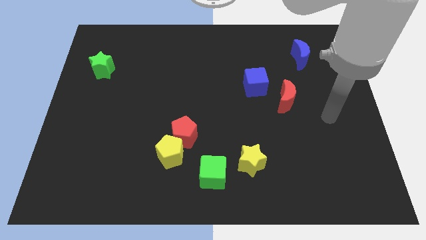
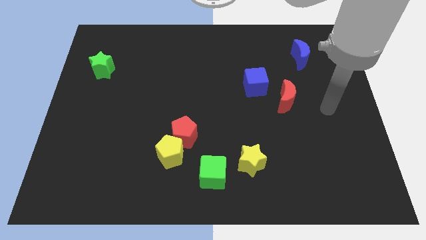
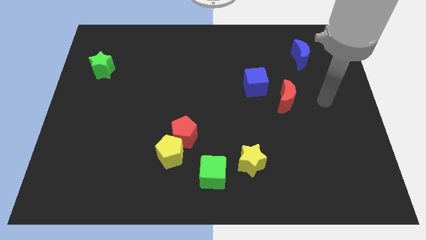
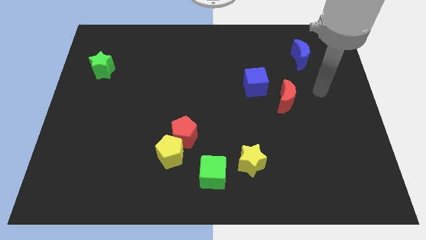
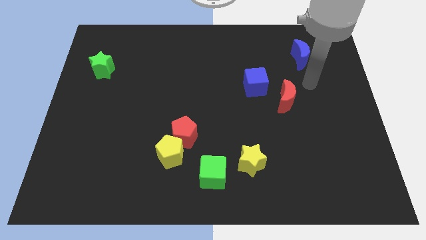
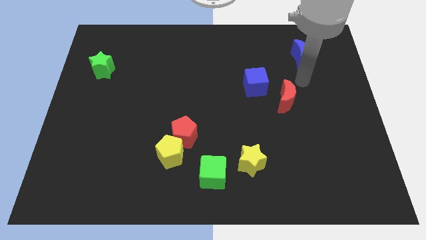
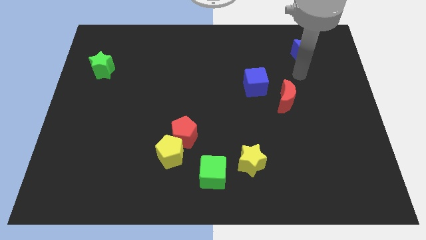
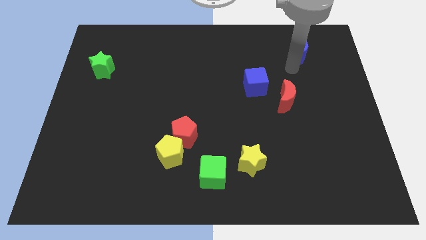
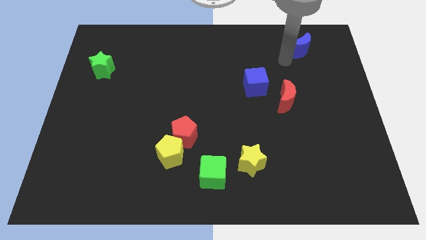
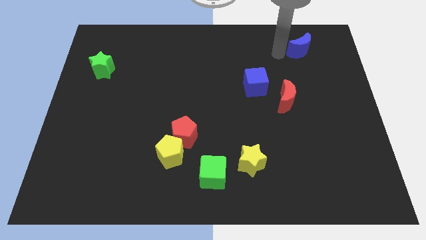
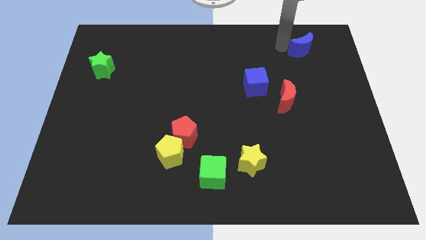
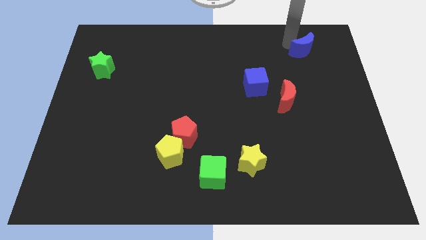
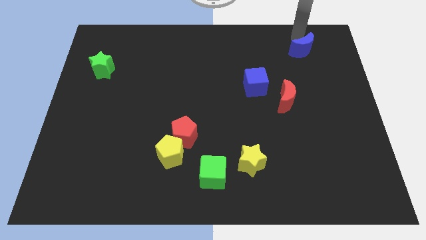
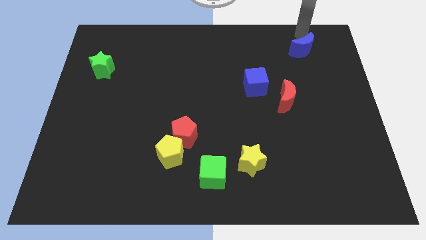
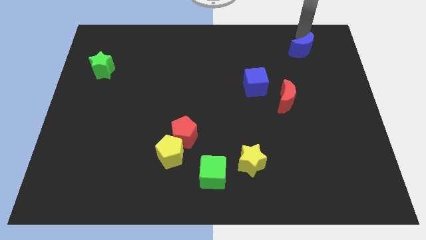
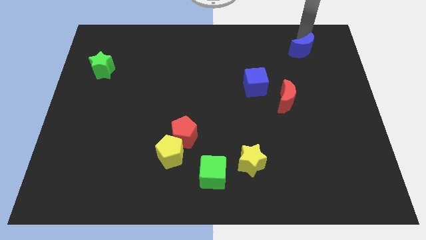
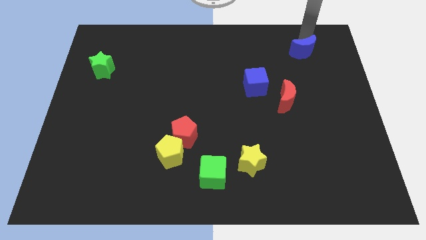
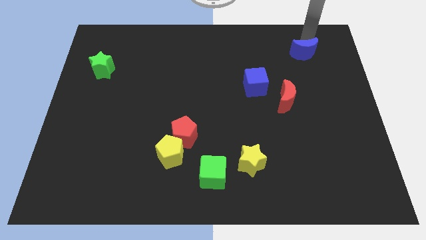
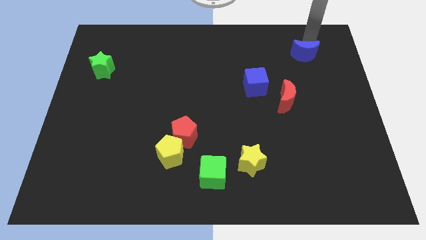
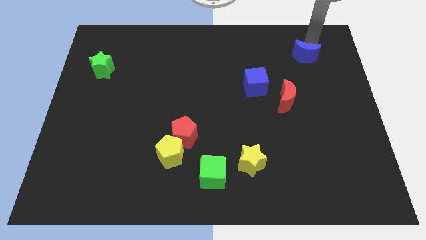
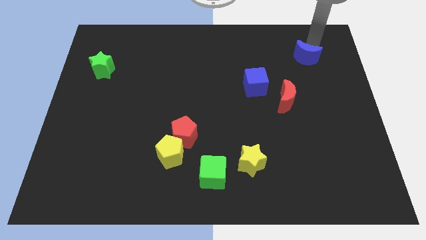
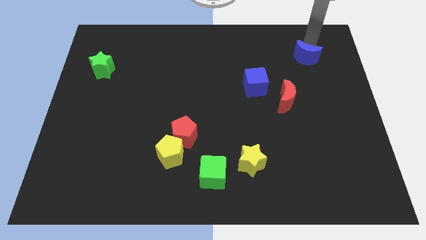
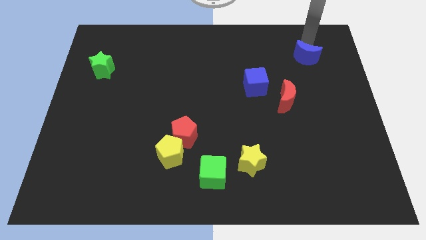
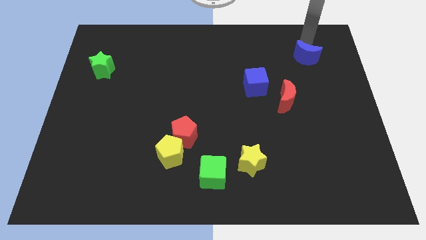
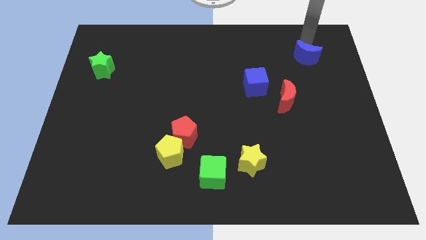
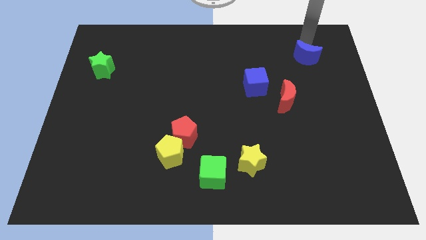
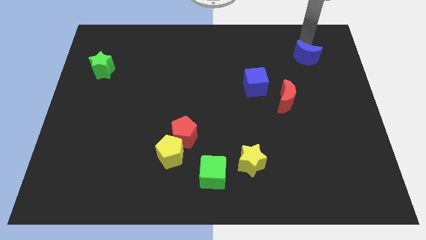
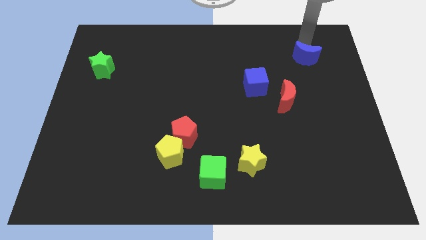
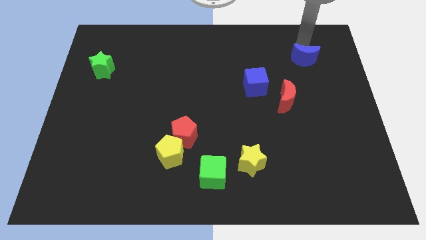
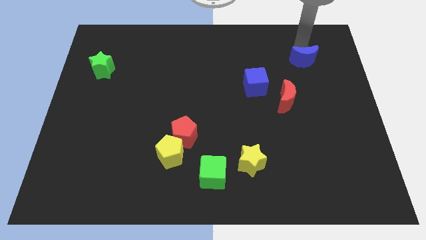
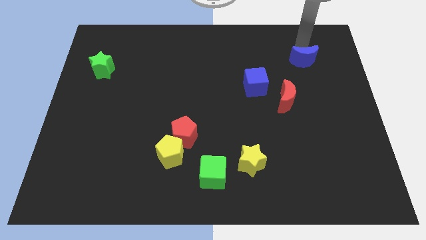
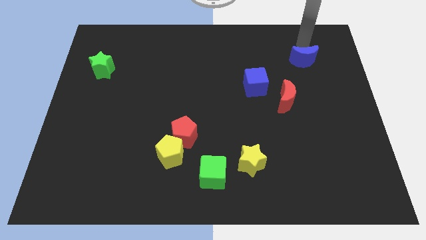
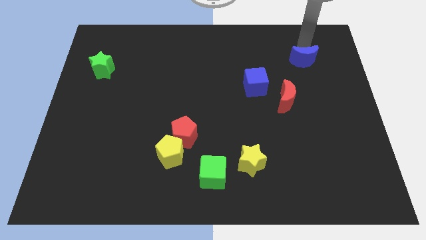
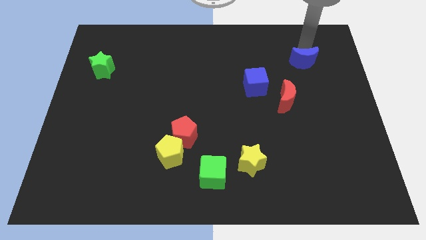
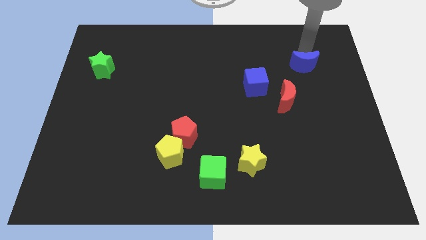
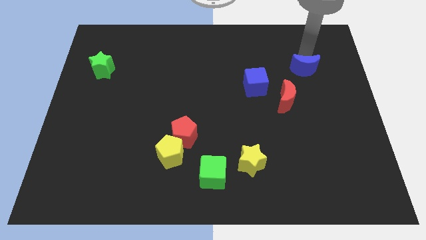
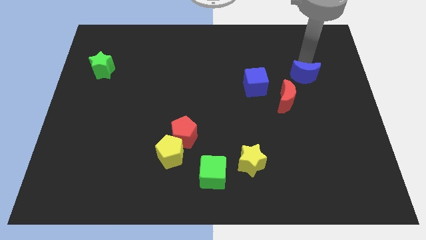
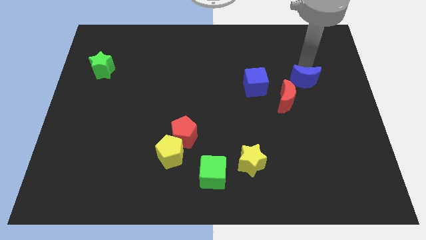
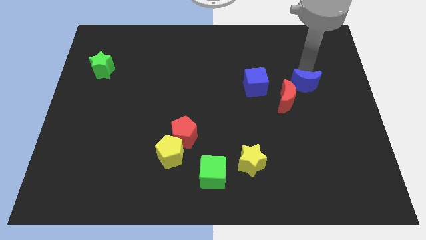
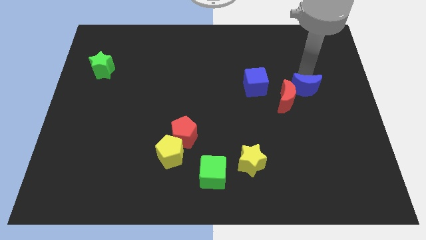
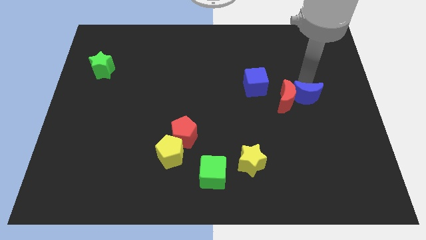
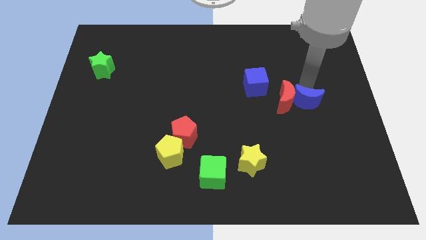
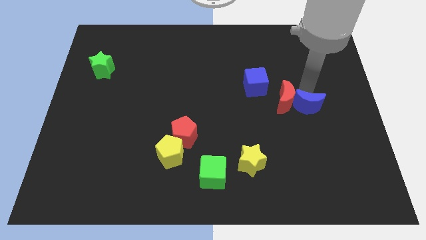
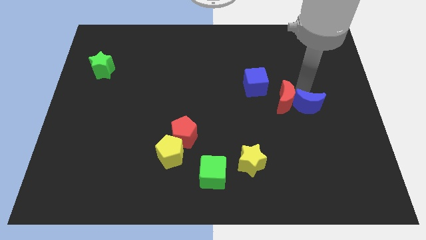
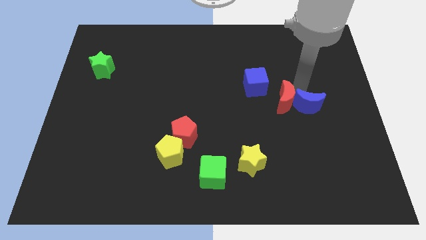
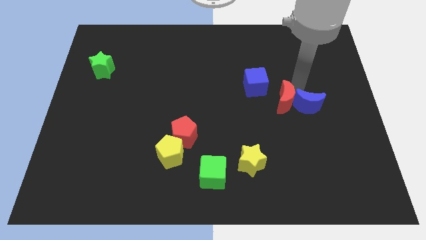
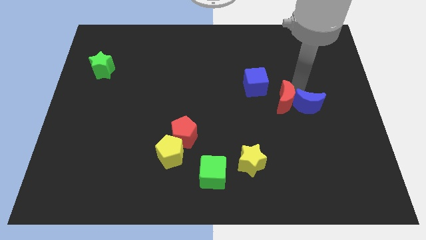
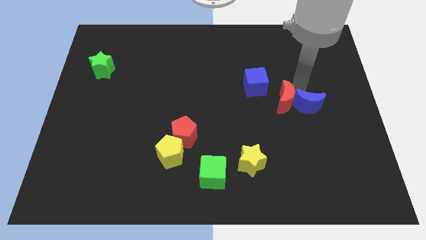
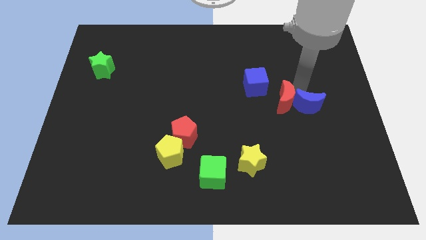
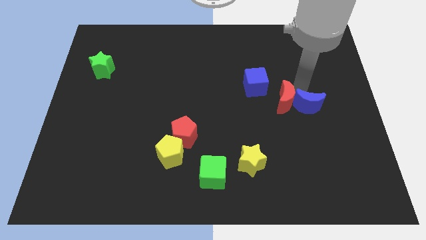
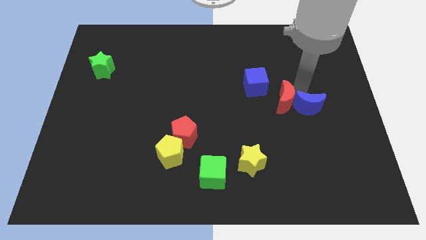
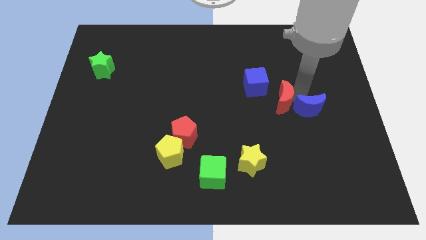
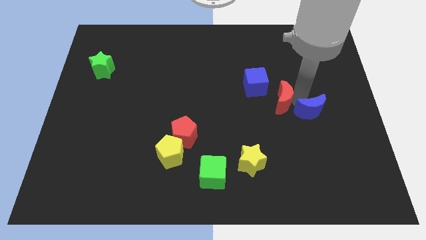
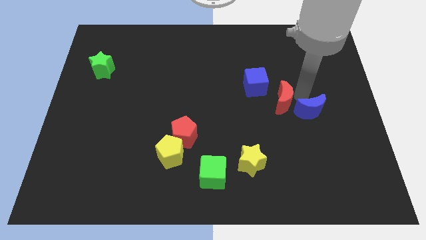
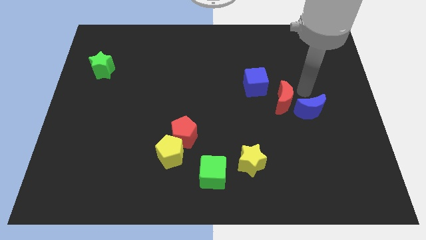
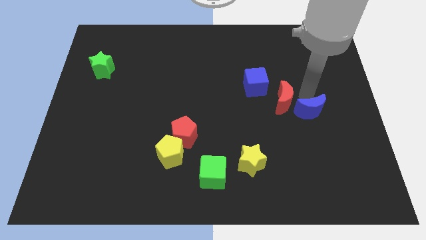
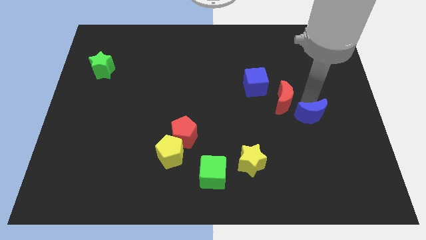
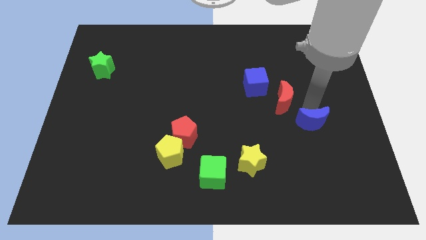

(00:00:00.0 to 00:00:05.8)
move the blue moon down

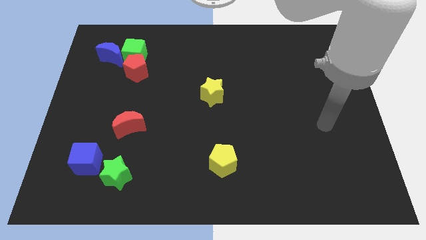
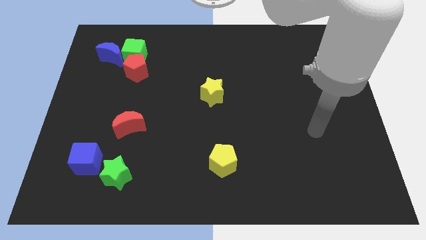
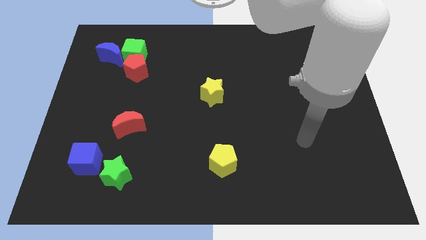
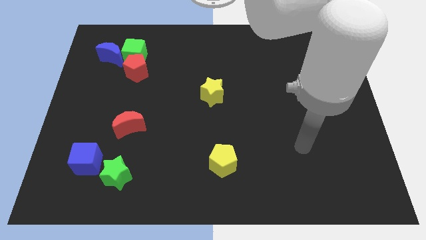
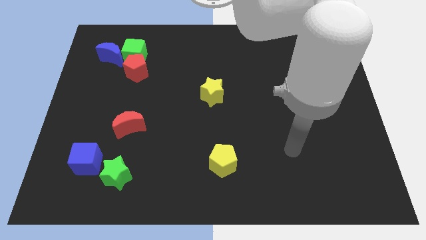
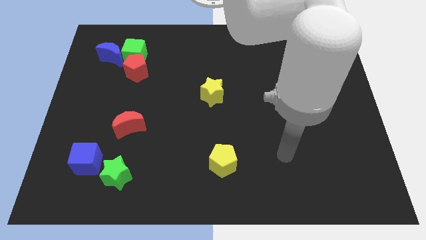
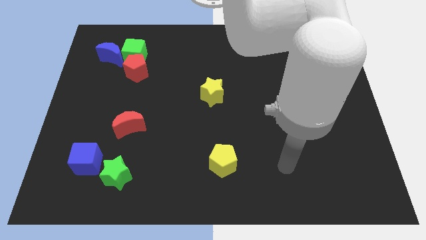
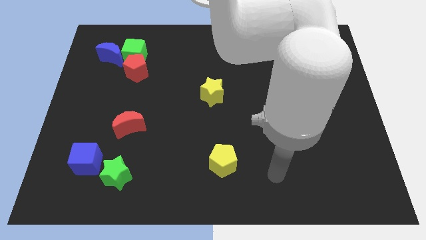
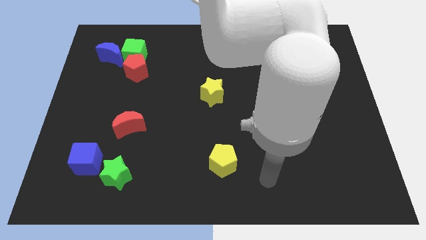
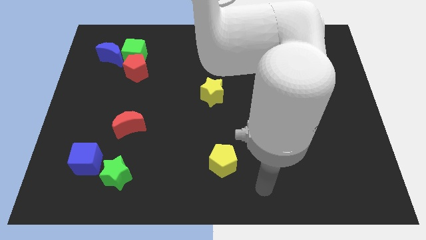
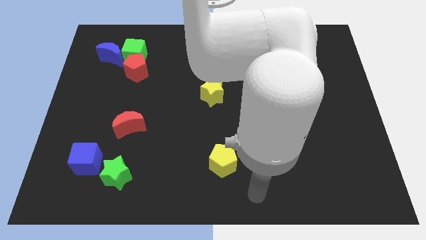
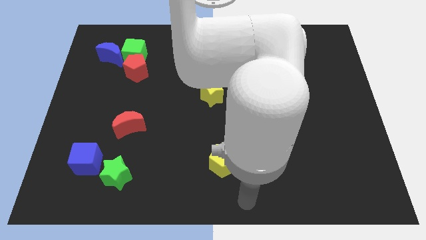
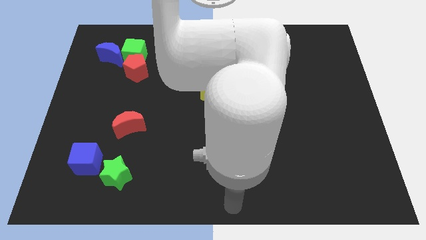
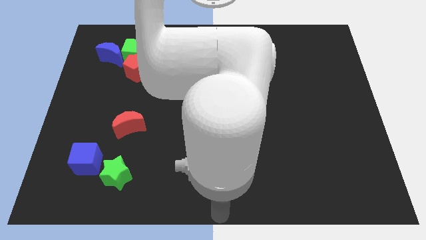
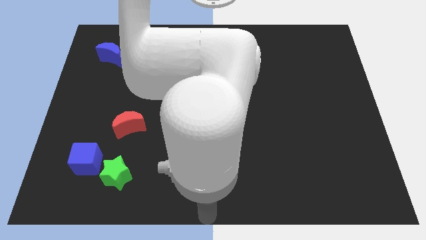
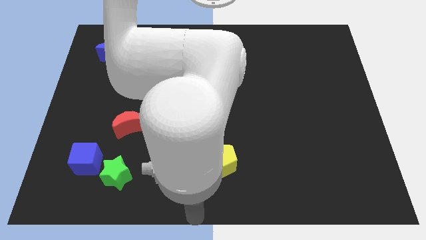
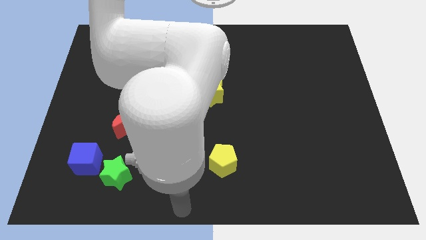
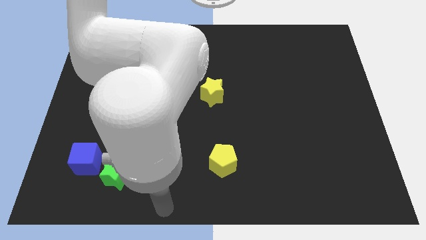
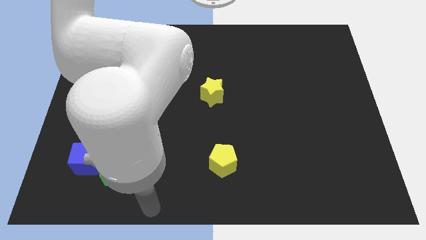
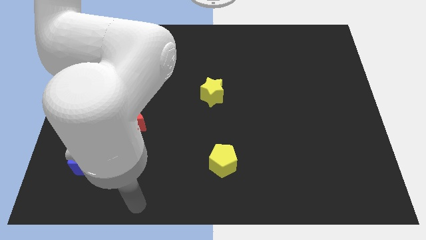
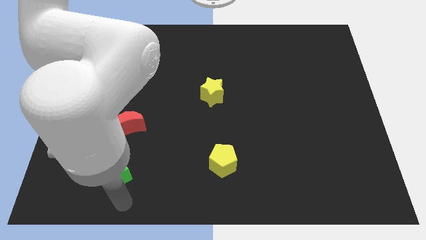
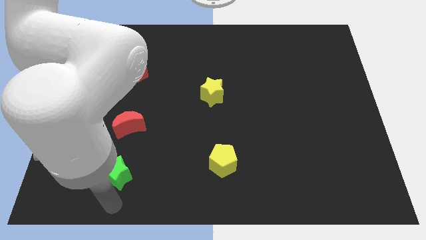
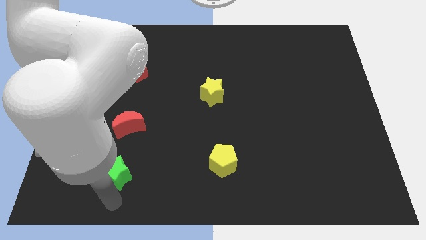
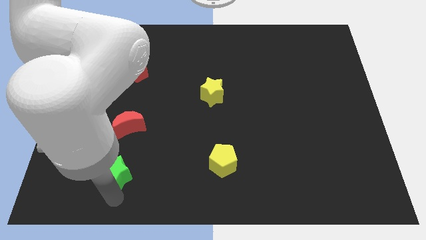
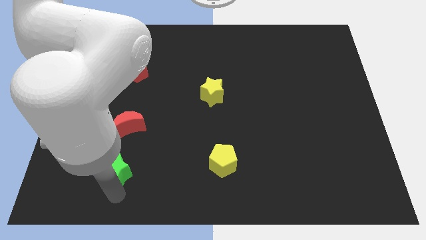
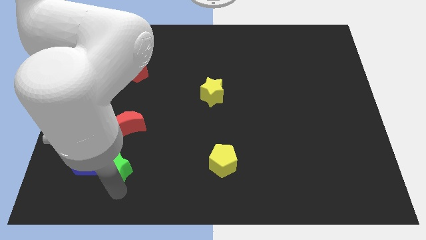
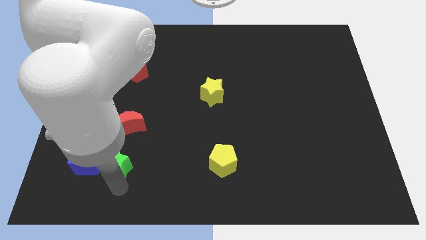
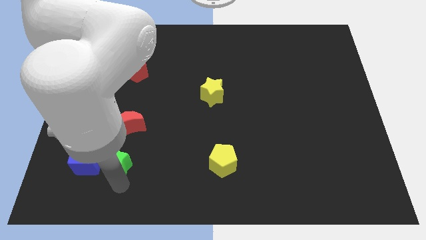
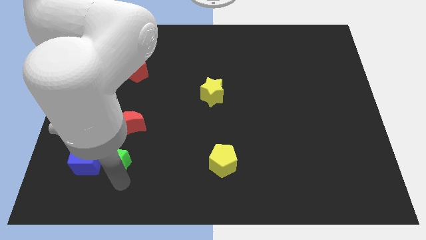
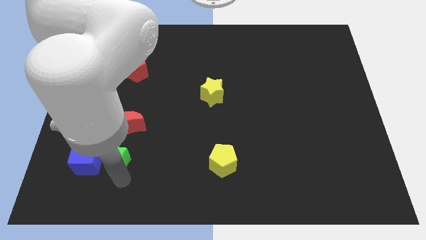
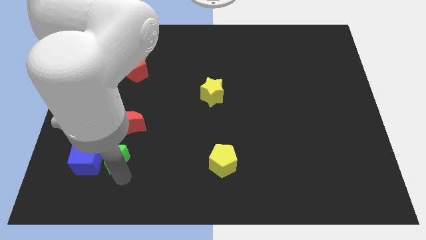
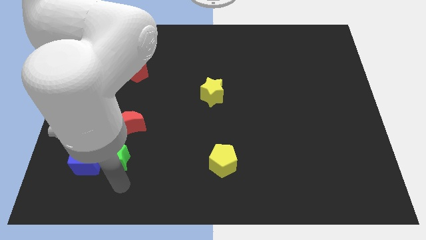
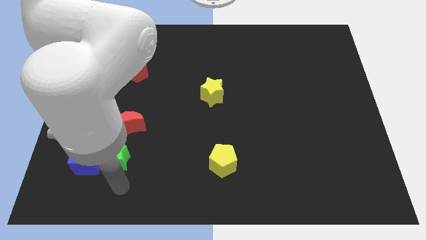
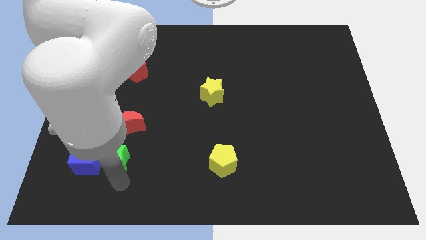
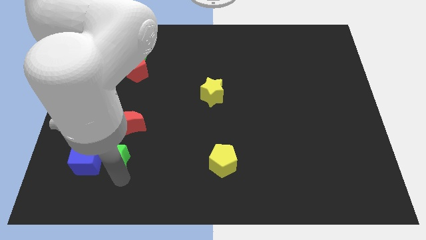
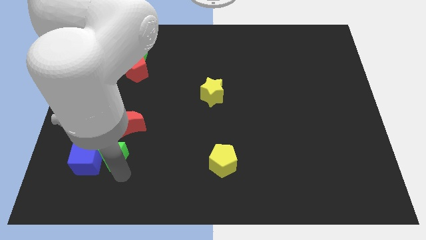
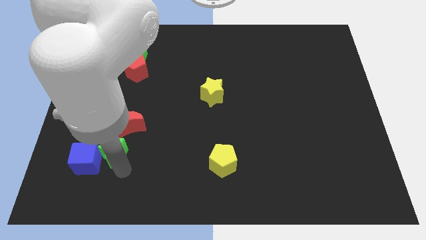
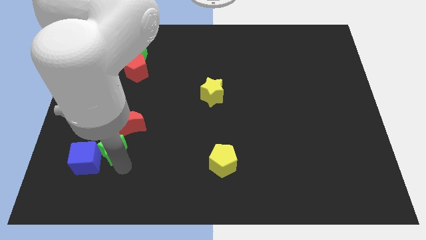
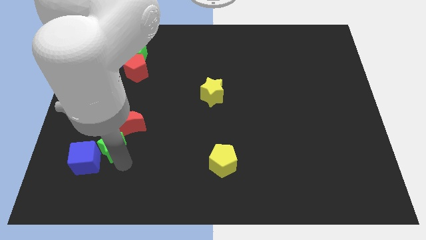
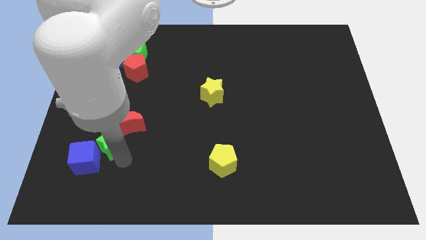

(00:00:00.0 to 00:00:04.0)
push the green star slightly upwards
